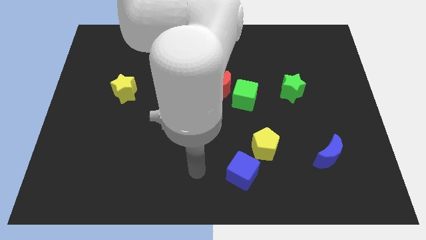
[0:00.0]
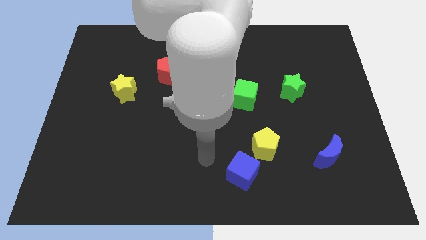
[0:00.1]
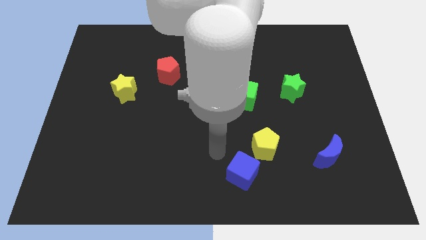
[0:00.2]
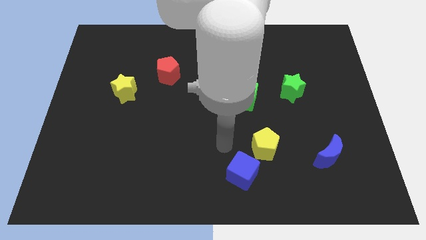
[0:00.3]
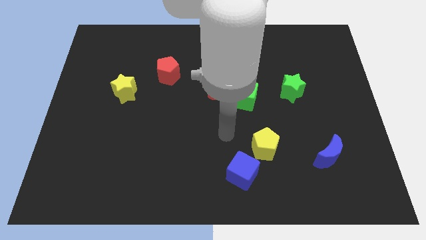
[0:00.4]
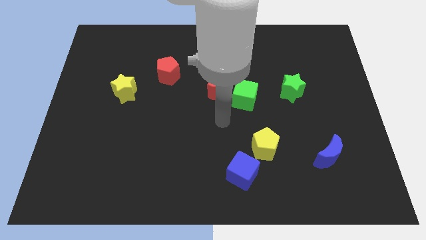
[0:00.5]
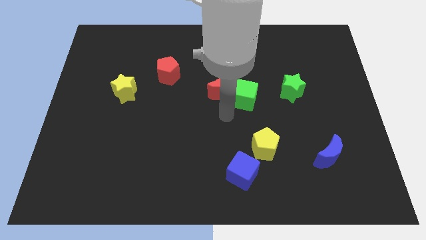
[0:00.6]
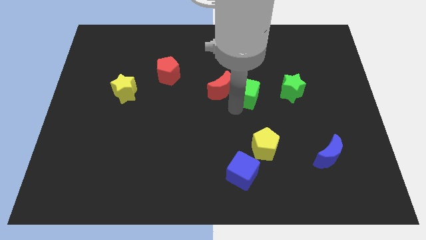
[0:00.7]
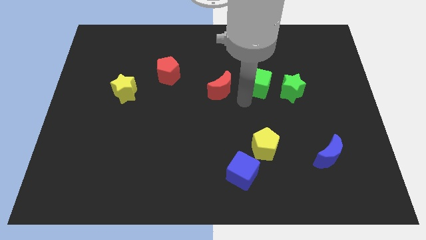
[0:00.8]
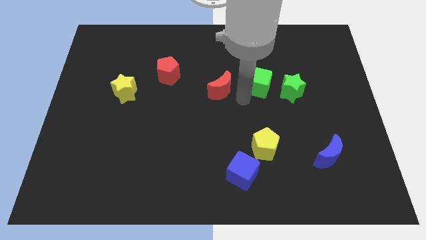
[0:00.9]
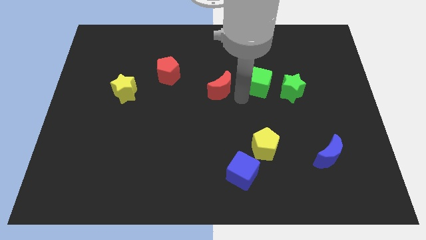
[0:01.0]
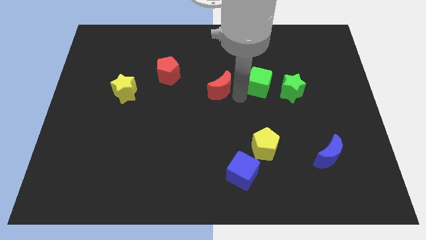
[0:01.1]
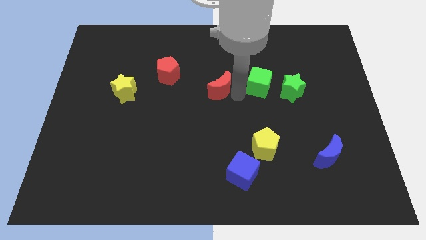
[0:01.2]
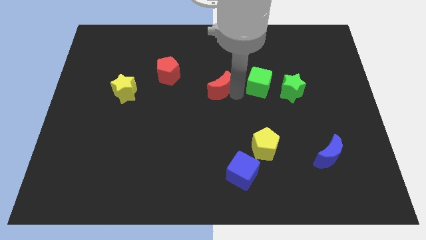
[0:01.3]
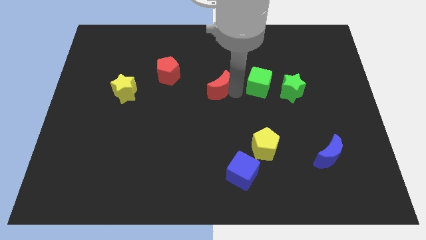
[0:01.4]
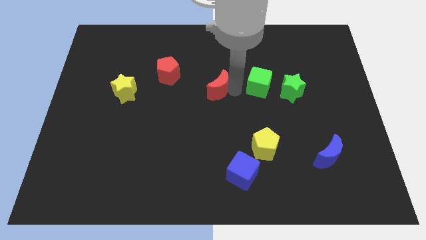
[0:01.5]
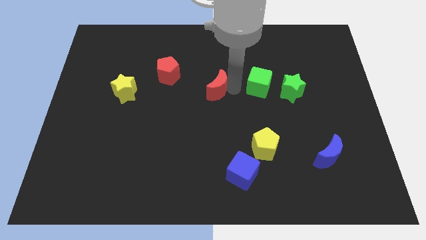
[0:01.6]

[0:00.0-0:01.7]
separate the red moon from the green cube

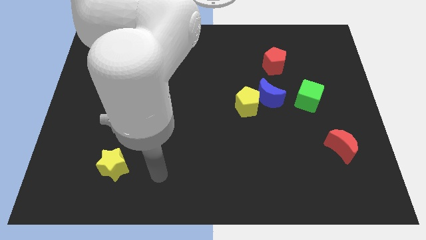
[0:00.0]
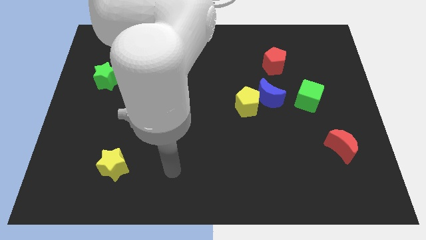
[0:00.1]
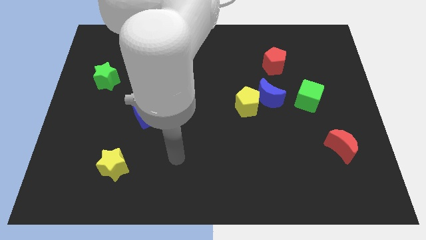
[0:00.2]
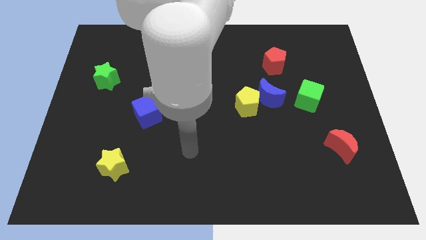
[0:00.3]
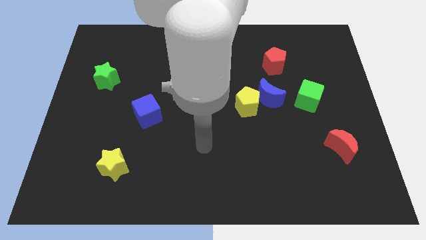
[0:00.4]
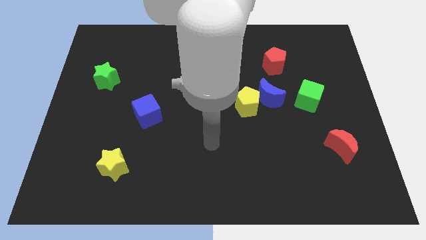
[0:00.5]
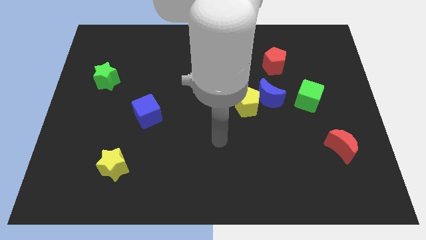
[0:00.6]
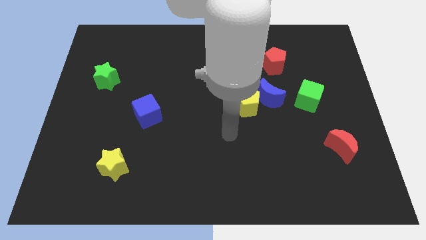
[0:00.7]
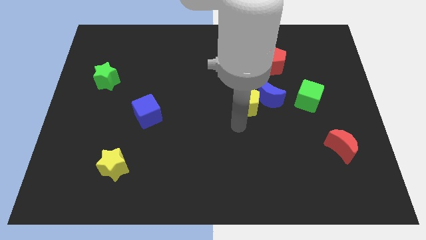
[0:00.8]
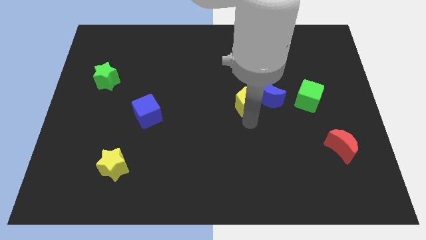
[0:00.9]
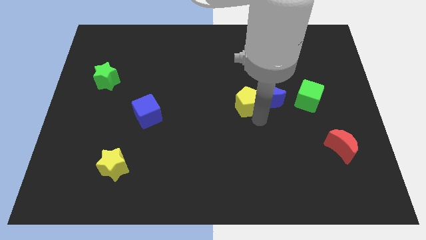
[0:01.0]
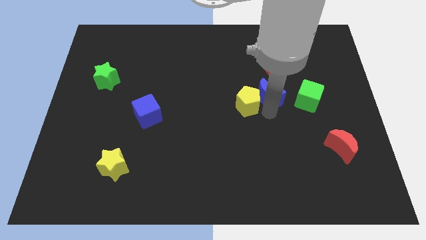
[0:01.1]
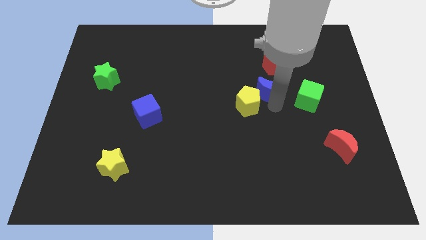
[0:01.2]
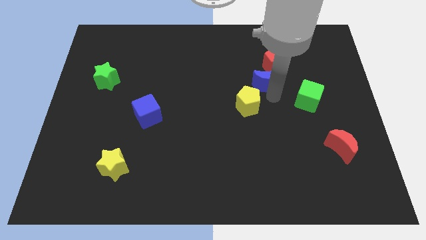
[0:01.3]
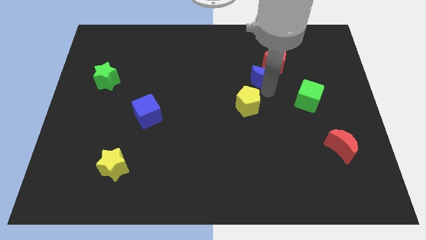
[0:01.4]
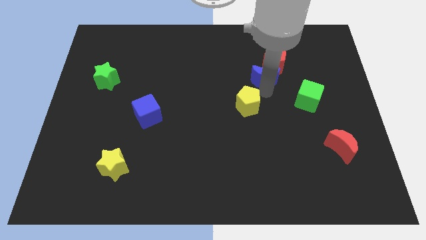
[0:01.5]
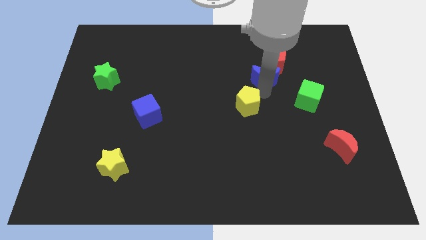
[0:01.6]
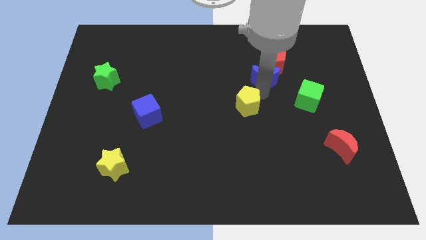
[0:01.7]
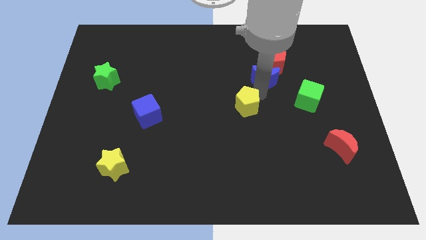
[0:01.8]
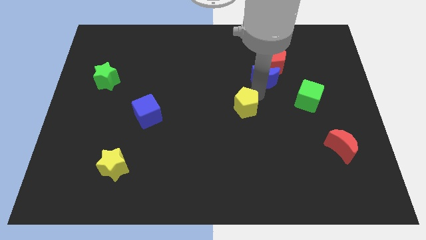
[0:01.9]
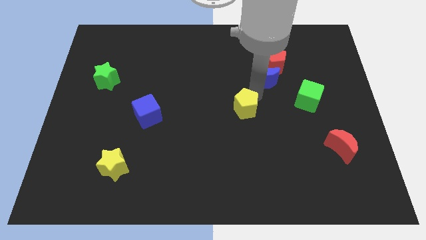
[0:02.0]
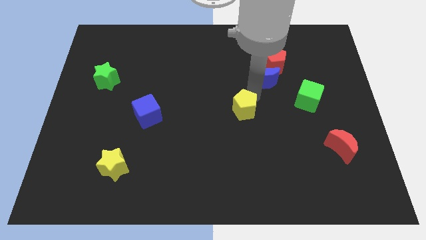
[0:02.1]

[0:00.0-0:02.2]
move the yellow pentagon away from the blue moon

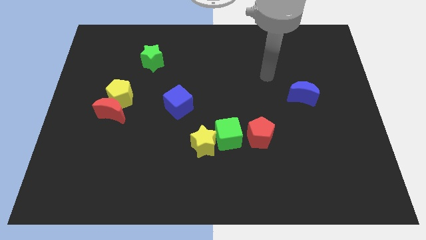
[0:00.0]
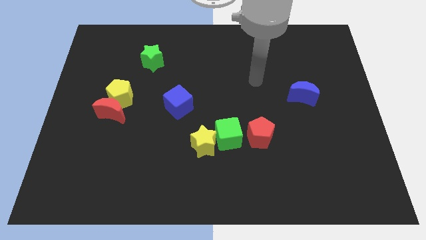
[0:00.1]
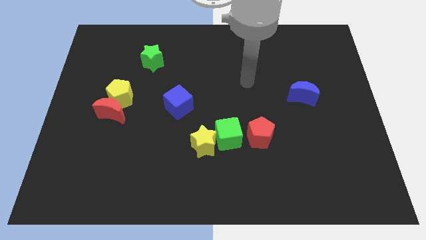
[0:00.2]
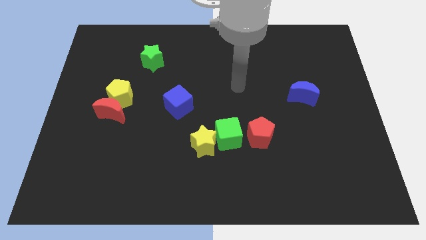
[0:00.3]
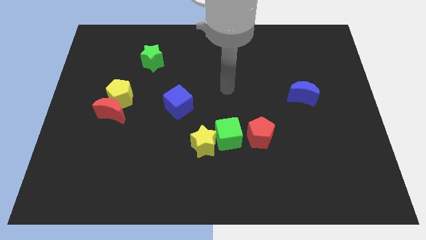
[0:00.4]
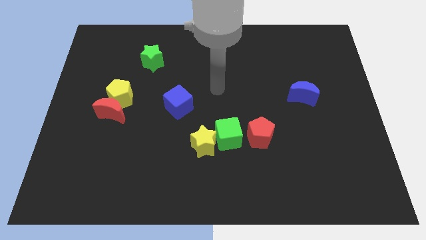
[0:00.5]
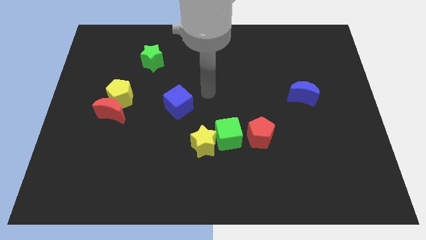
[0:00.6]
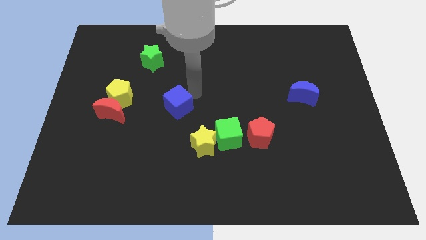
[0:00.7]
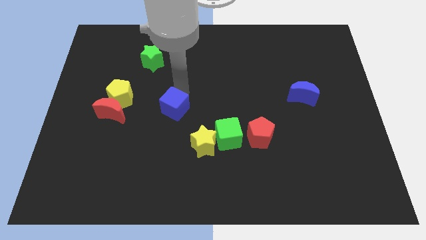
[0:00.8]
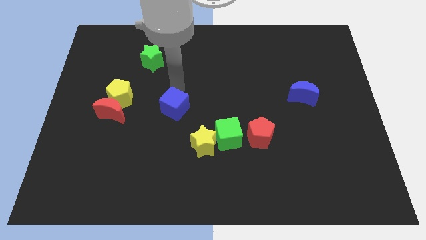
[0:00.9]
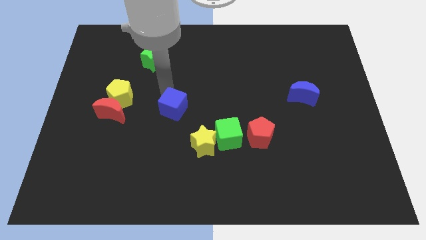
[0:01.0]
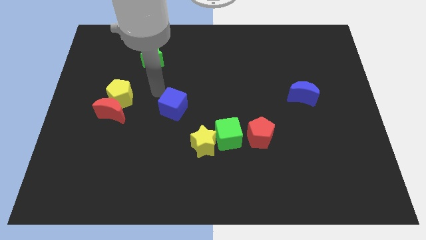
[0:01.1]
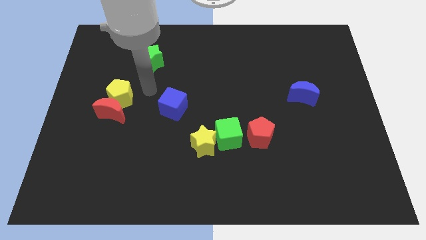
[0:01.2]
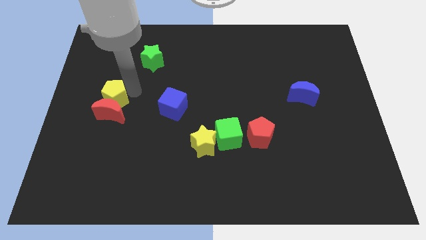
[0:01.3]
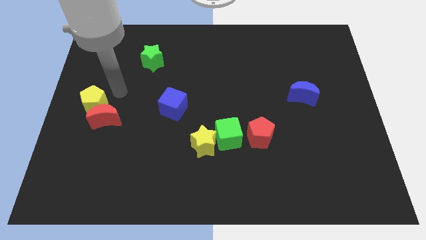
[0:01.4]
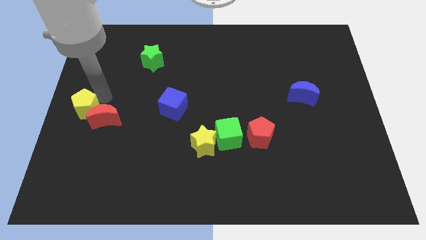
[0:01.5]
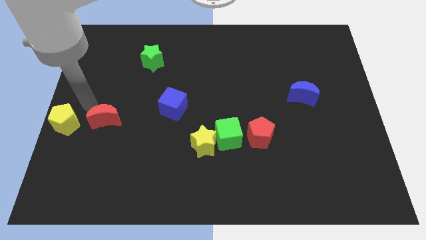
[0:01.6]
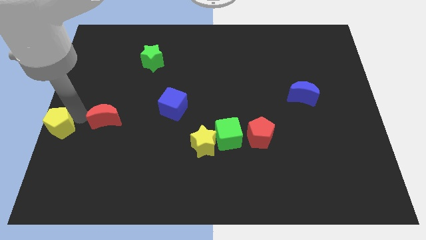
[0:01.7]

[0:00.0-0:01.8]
move the red moon away from the yellow pentagon

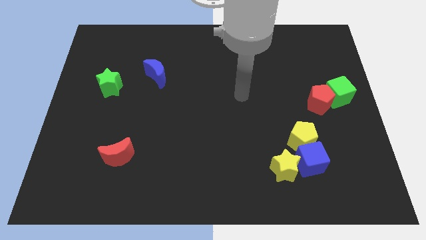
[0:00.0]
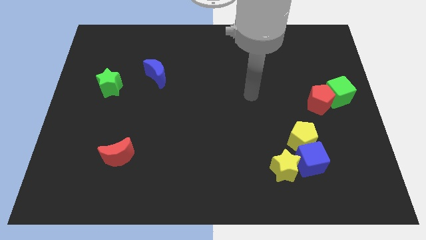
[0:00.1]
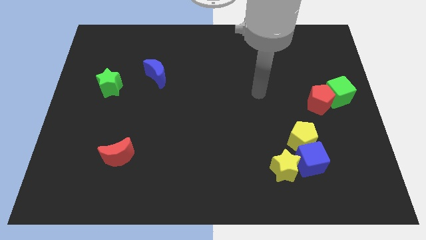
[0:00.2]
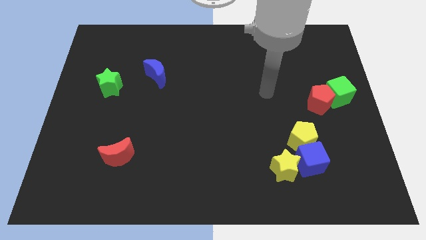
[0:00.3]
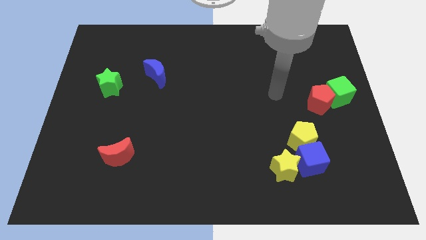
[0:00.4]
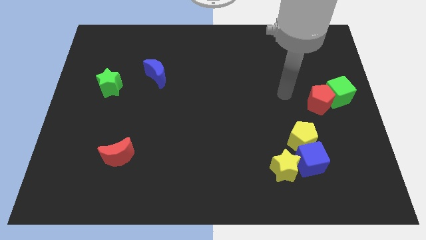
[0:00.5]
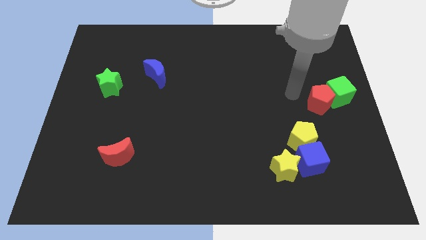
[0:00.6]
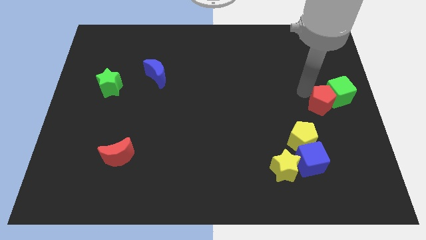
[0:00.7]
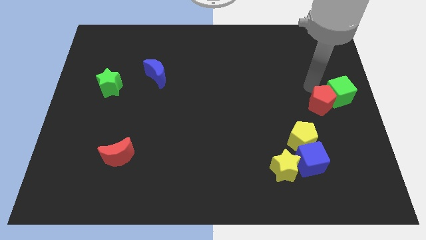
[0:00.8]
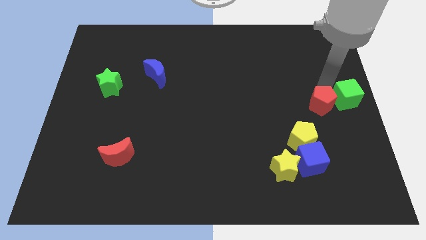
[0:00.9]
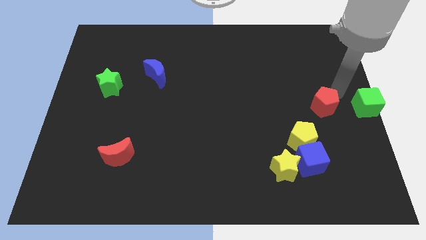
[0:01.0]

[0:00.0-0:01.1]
separate the red pentagon from the green cube

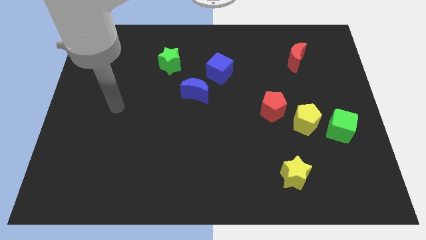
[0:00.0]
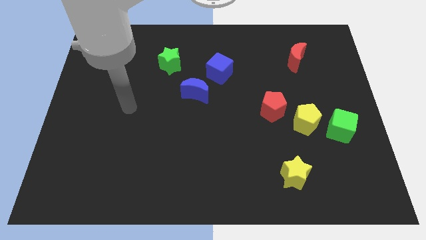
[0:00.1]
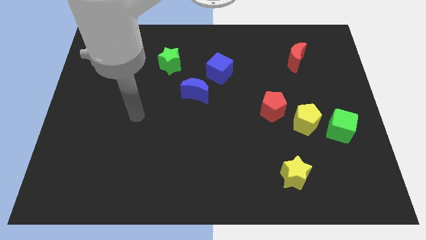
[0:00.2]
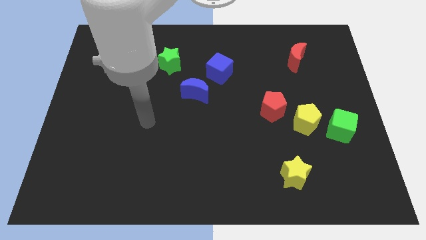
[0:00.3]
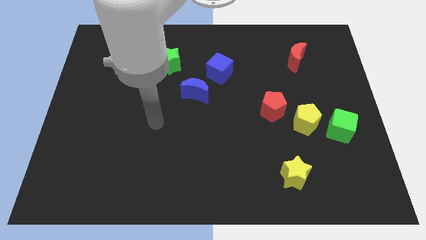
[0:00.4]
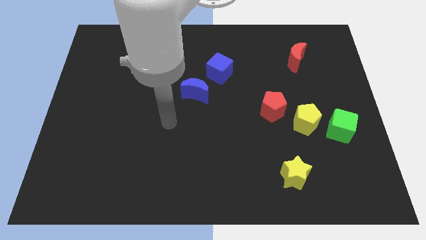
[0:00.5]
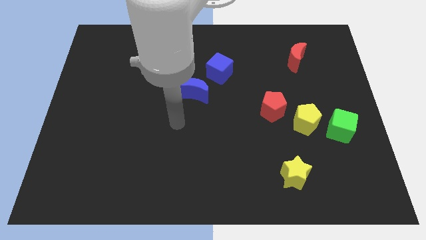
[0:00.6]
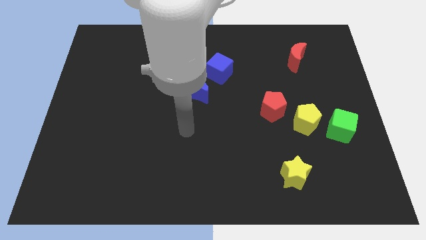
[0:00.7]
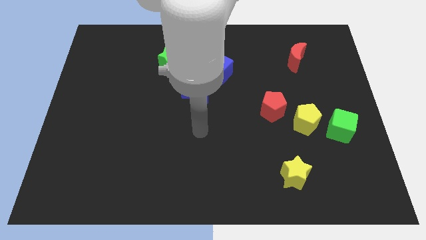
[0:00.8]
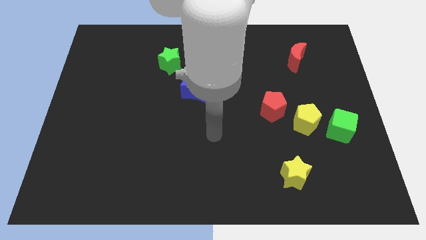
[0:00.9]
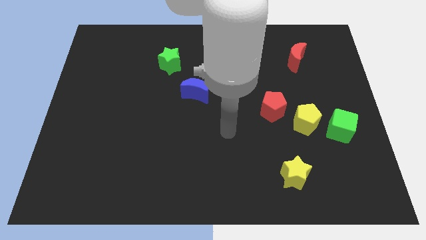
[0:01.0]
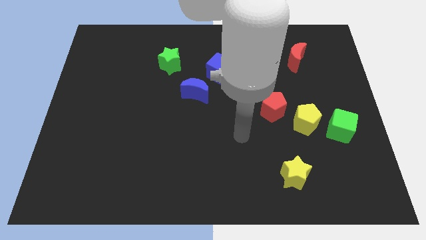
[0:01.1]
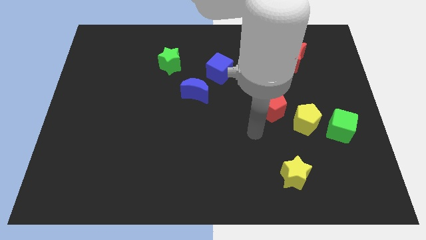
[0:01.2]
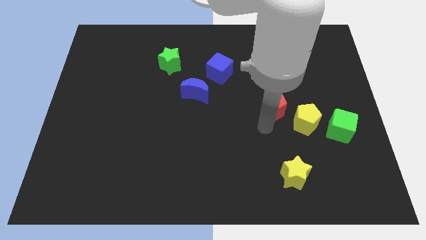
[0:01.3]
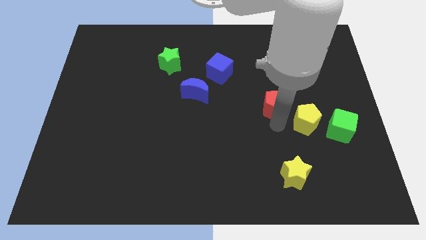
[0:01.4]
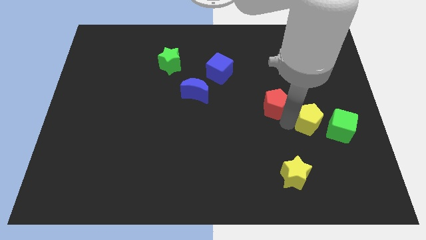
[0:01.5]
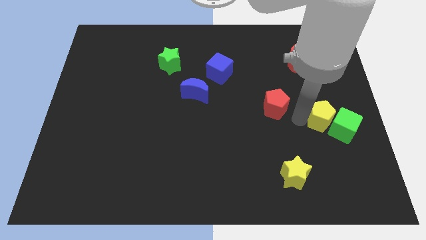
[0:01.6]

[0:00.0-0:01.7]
move the red pentagon away from the yellow pentagon

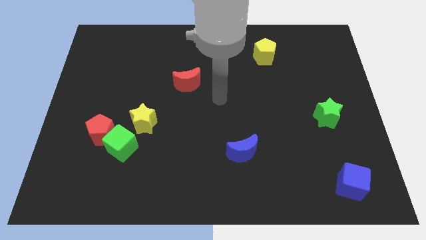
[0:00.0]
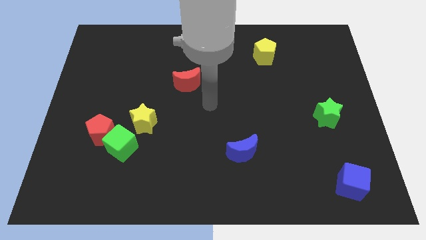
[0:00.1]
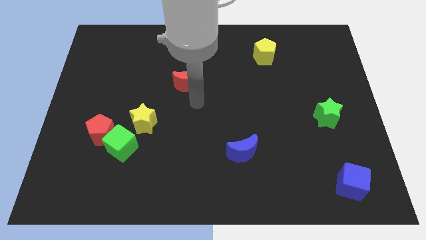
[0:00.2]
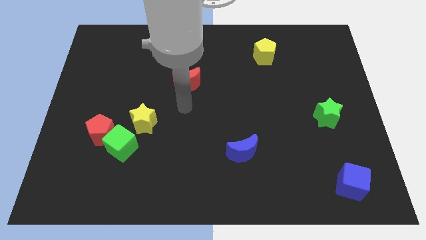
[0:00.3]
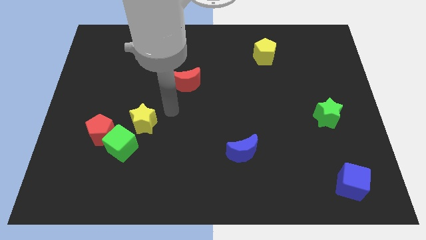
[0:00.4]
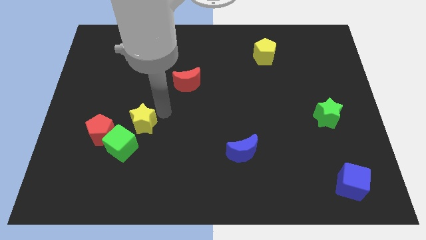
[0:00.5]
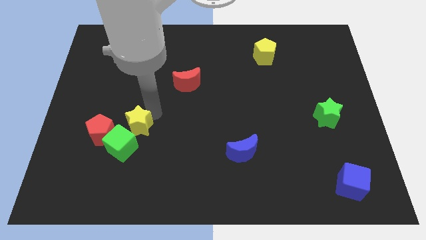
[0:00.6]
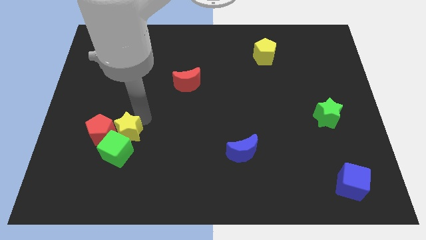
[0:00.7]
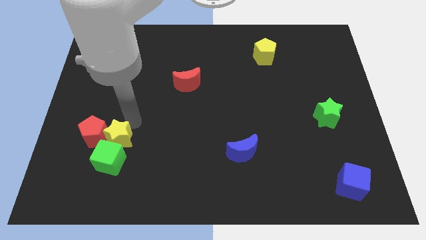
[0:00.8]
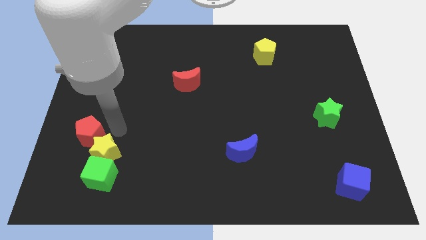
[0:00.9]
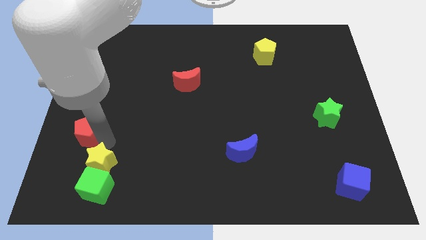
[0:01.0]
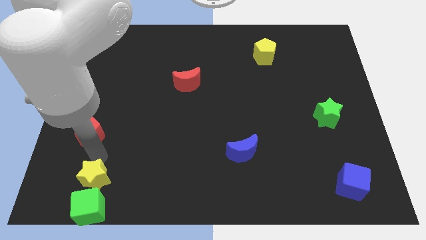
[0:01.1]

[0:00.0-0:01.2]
move the green cube away from the red pentagon and yellow star
